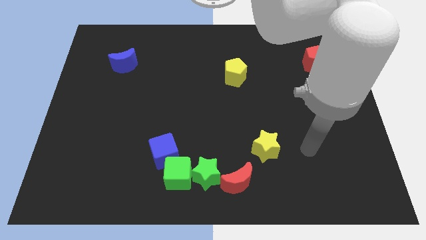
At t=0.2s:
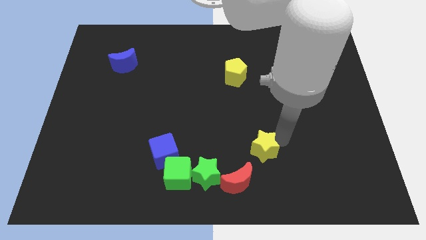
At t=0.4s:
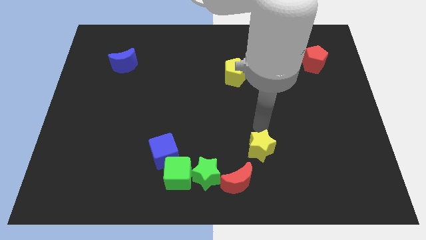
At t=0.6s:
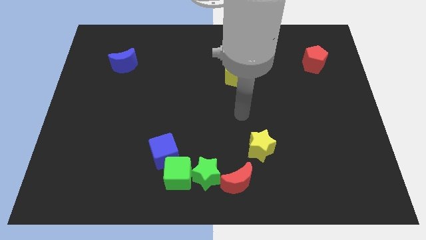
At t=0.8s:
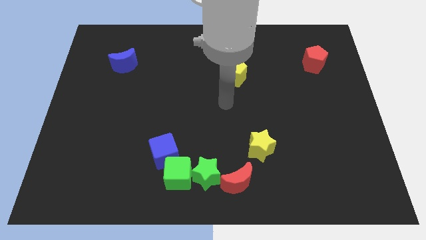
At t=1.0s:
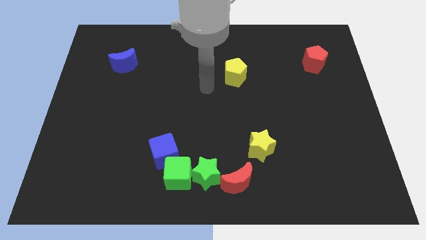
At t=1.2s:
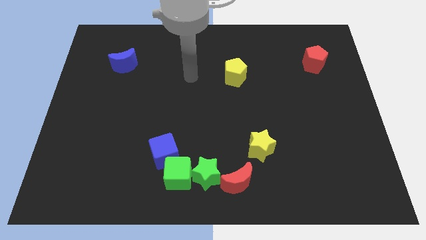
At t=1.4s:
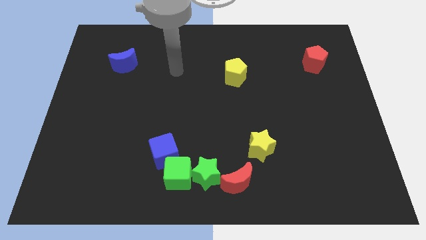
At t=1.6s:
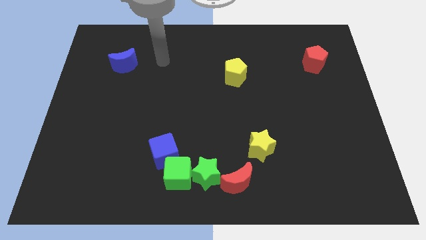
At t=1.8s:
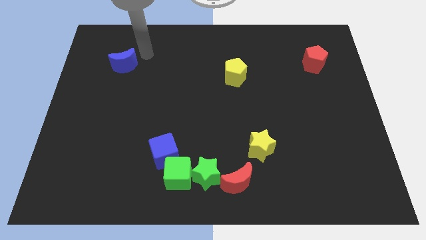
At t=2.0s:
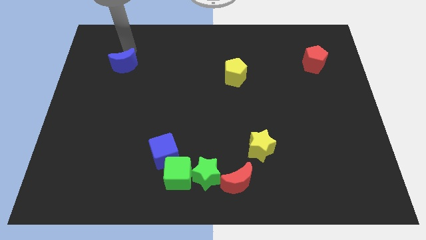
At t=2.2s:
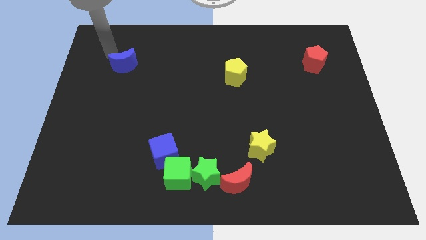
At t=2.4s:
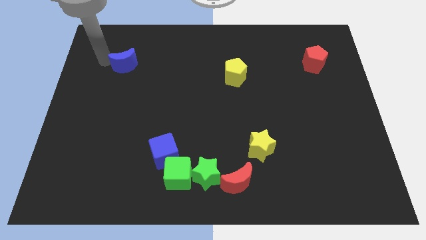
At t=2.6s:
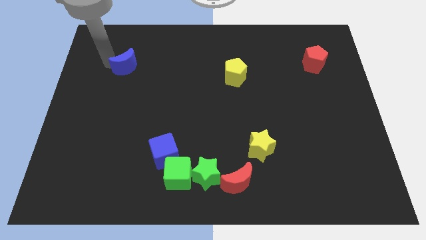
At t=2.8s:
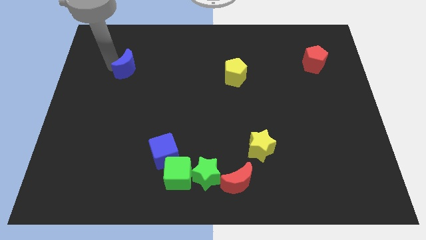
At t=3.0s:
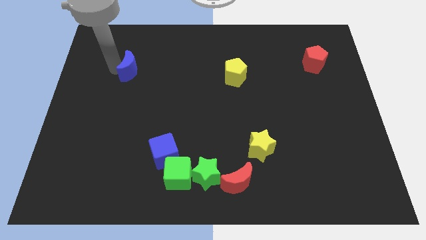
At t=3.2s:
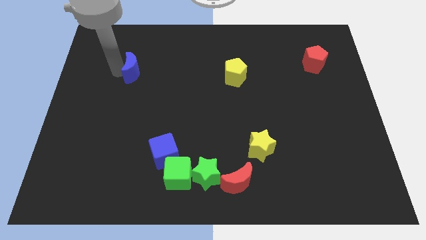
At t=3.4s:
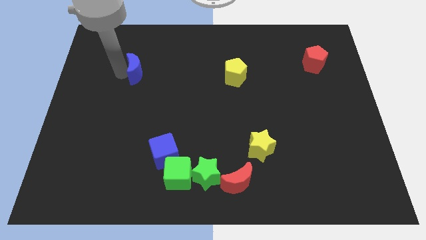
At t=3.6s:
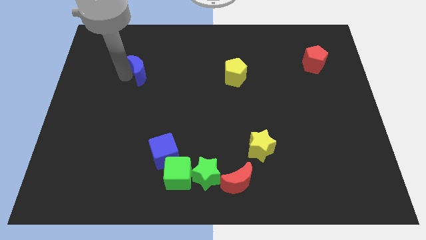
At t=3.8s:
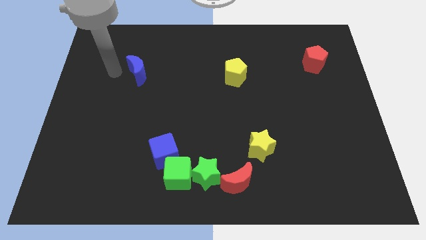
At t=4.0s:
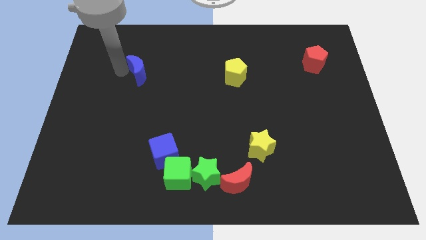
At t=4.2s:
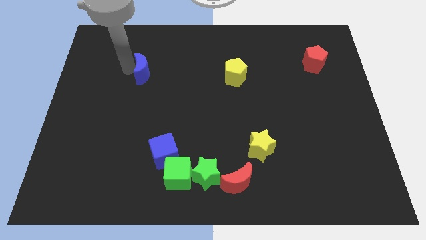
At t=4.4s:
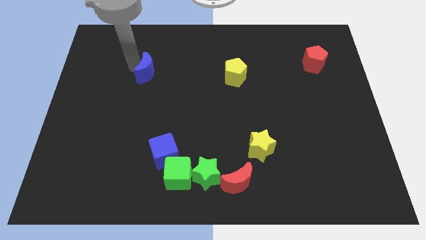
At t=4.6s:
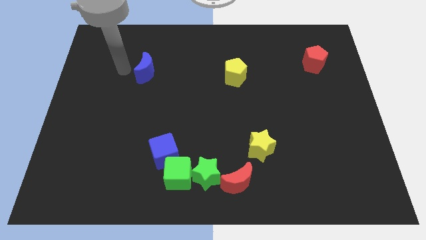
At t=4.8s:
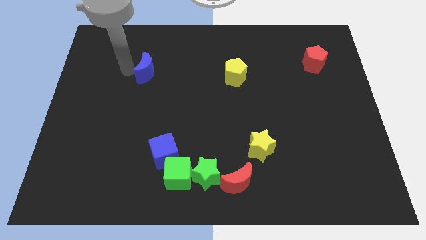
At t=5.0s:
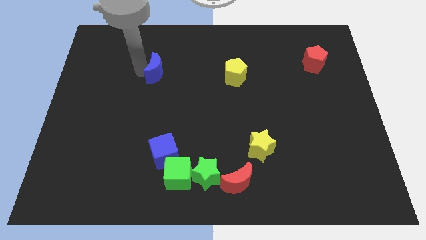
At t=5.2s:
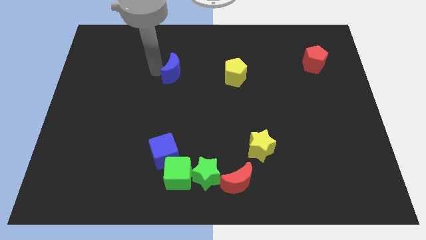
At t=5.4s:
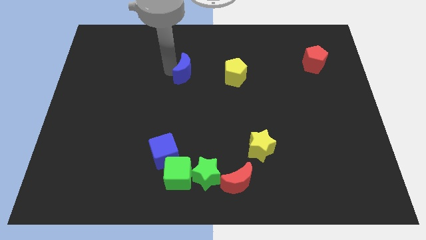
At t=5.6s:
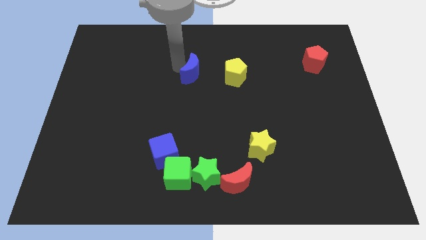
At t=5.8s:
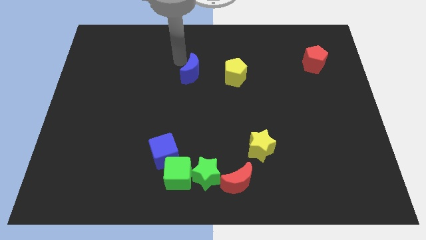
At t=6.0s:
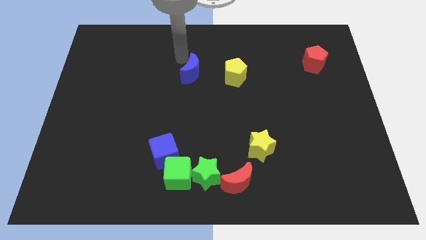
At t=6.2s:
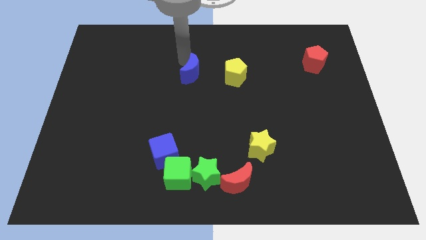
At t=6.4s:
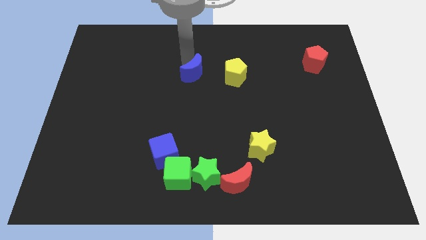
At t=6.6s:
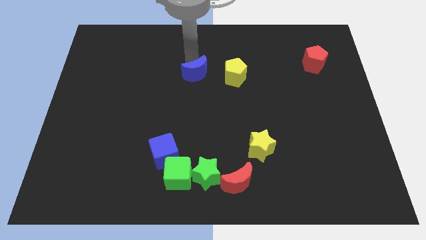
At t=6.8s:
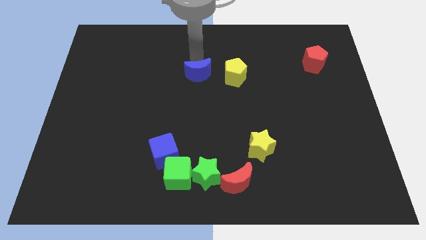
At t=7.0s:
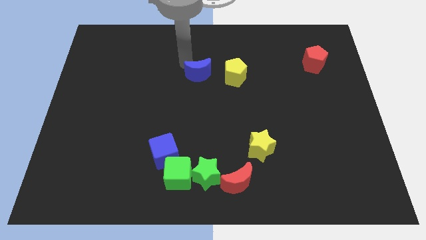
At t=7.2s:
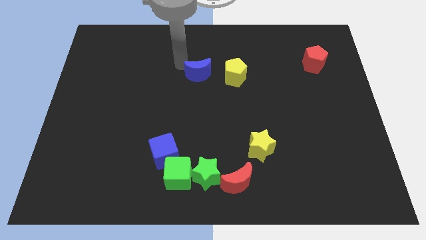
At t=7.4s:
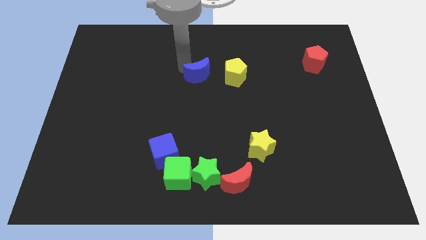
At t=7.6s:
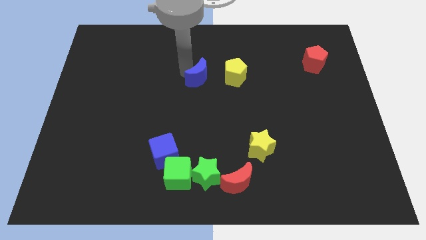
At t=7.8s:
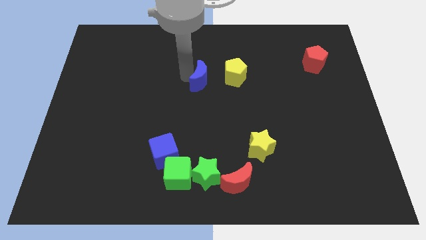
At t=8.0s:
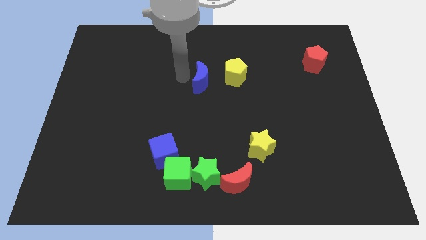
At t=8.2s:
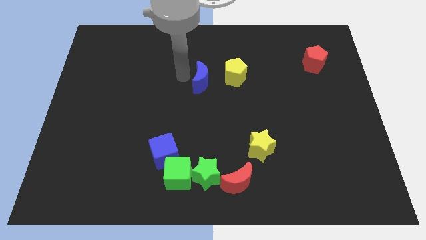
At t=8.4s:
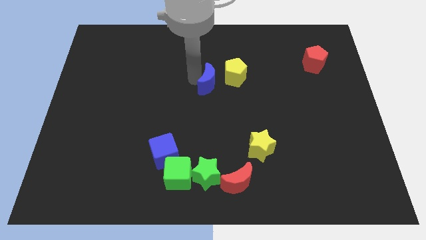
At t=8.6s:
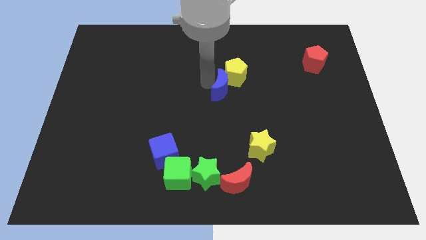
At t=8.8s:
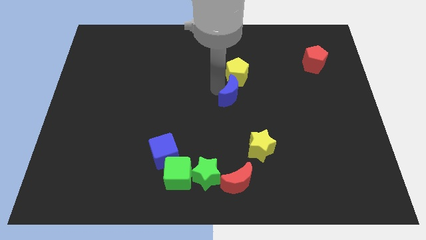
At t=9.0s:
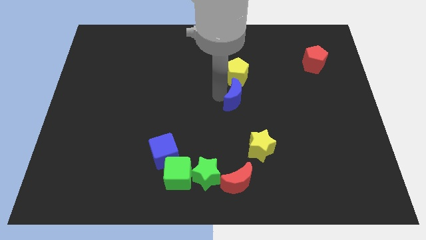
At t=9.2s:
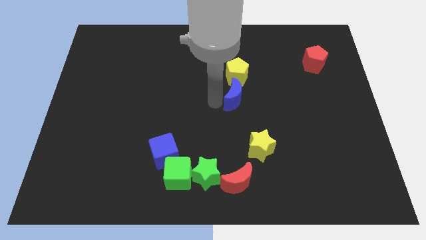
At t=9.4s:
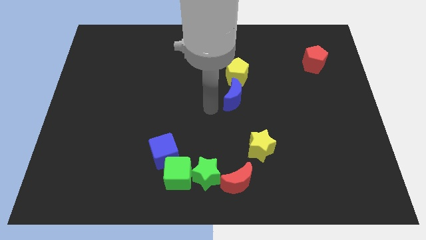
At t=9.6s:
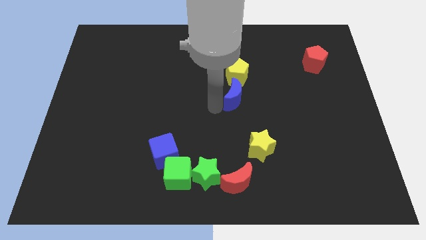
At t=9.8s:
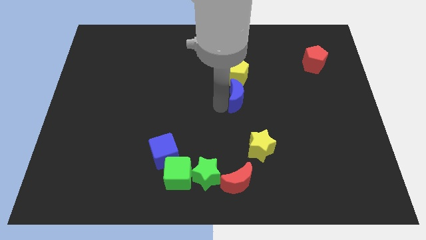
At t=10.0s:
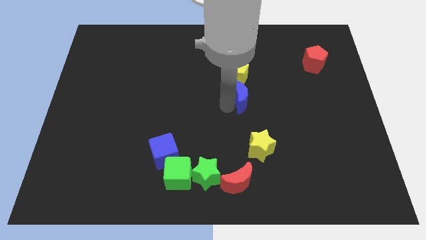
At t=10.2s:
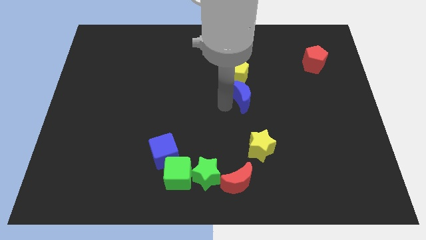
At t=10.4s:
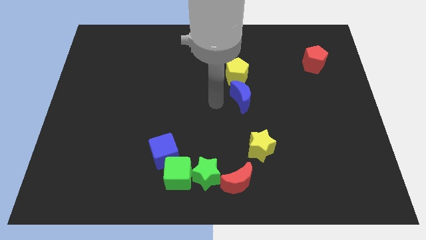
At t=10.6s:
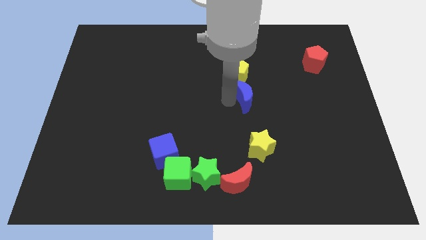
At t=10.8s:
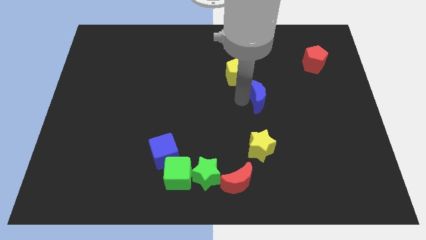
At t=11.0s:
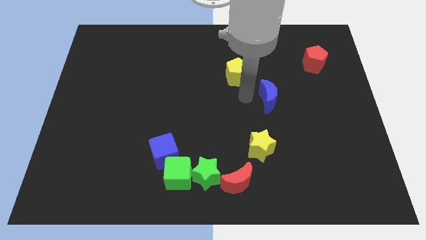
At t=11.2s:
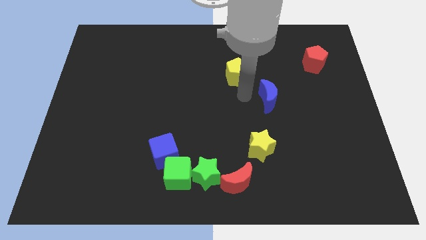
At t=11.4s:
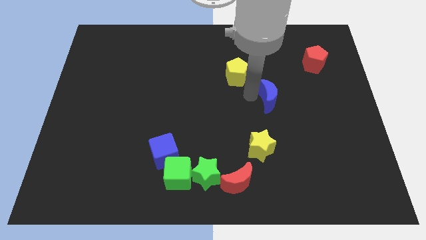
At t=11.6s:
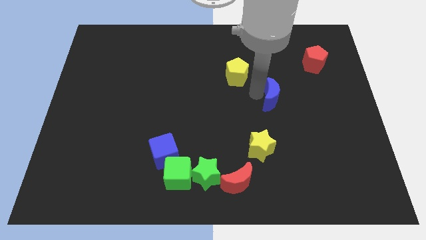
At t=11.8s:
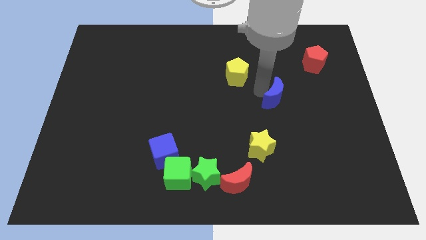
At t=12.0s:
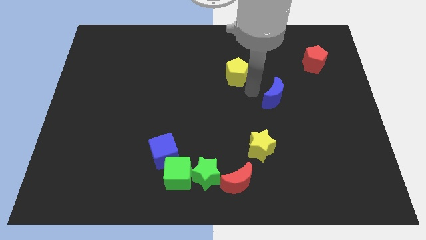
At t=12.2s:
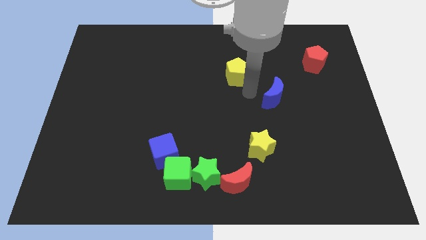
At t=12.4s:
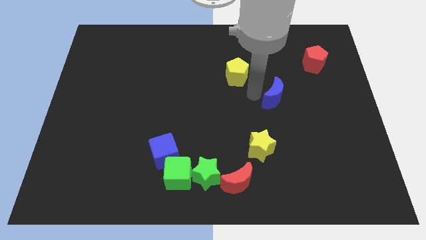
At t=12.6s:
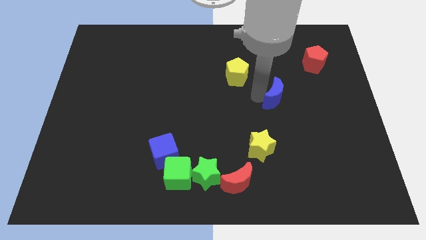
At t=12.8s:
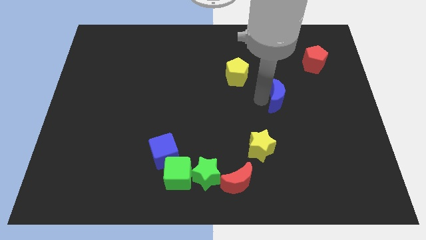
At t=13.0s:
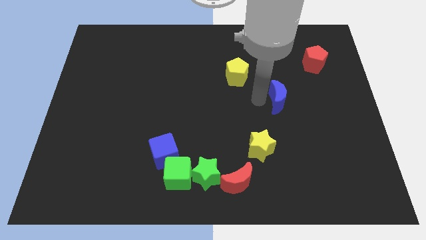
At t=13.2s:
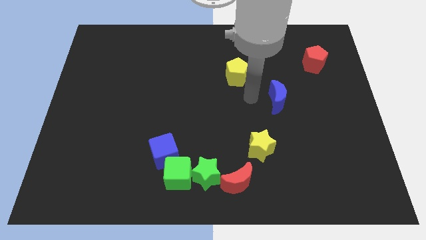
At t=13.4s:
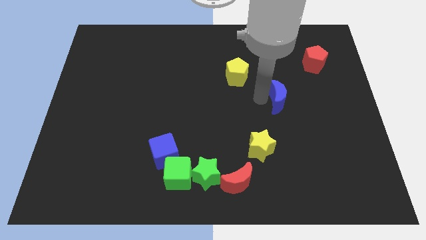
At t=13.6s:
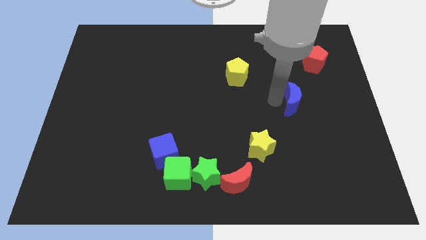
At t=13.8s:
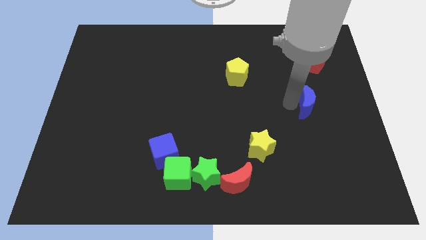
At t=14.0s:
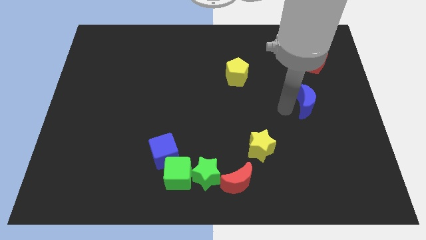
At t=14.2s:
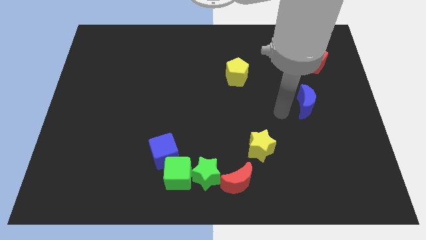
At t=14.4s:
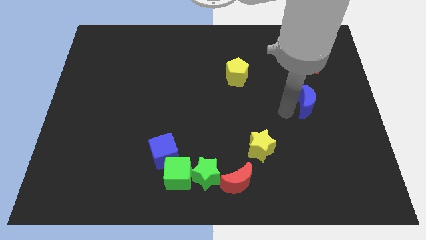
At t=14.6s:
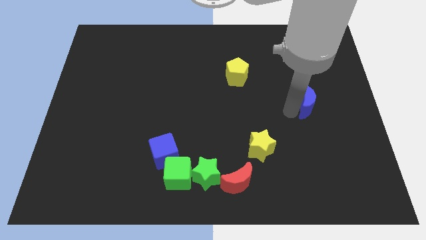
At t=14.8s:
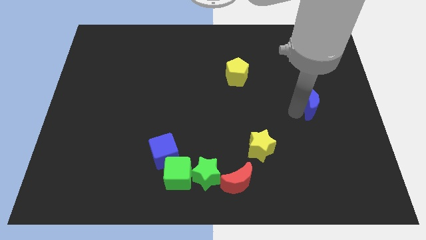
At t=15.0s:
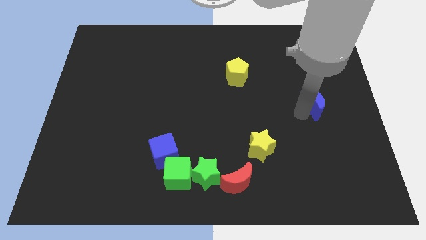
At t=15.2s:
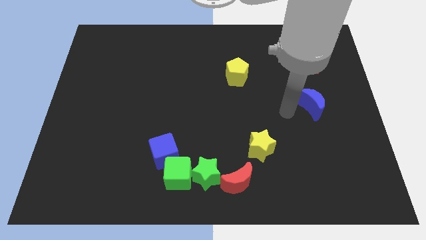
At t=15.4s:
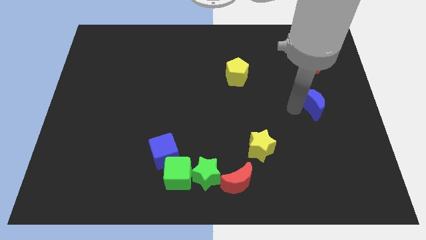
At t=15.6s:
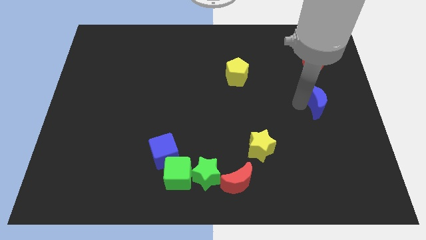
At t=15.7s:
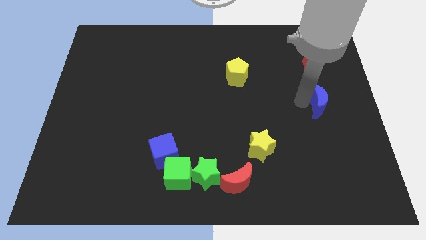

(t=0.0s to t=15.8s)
move the blue moon to the right side of the board
